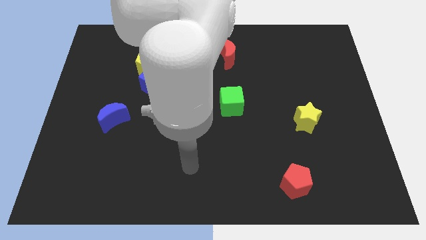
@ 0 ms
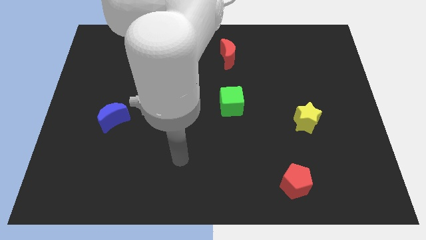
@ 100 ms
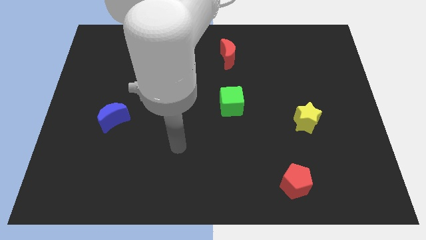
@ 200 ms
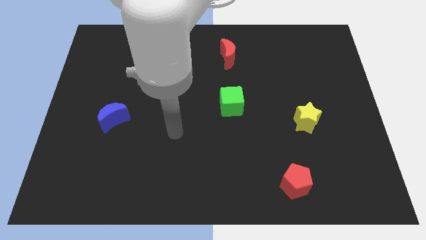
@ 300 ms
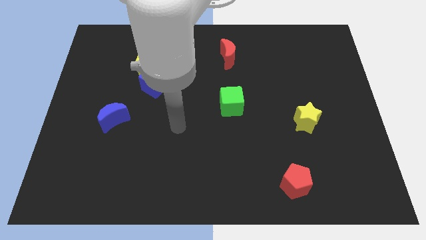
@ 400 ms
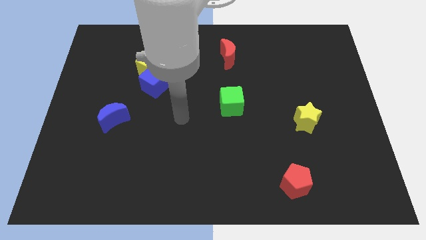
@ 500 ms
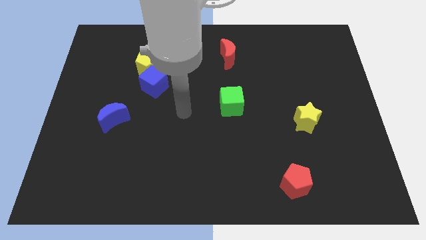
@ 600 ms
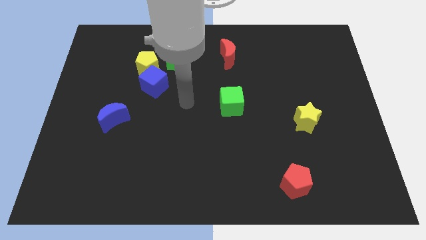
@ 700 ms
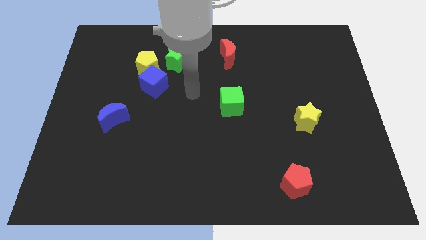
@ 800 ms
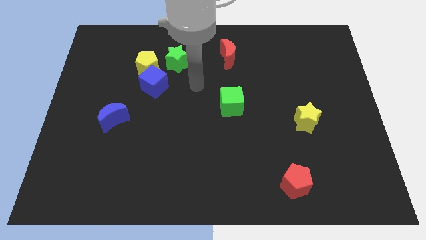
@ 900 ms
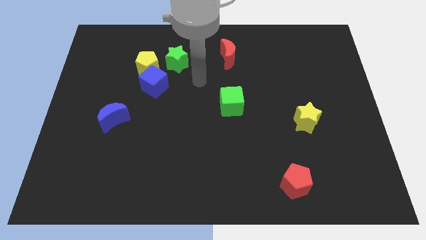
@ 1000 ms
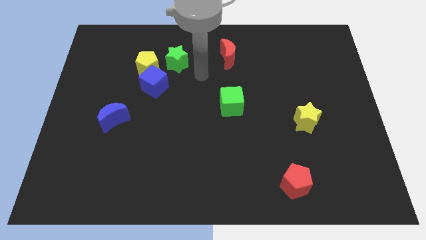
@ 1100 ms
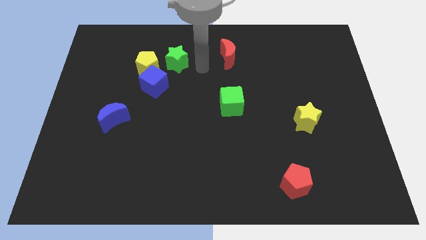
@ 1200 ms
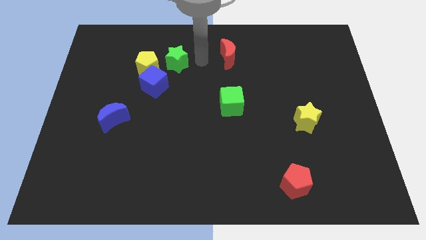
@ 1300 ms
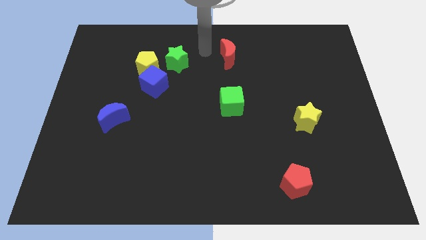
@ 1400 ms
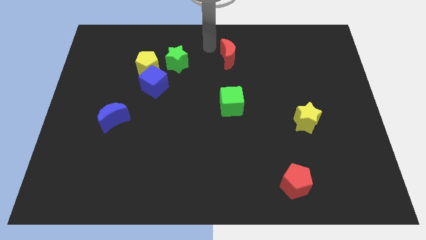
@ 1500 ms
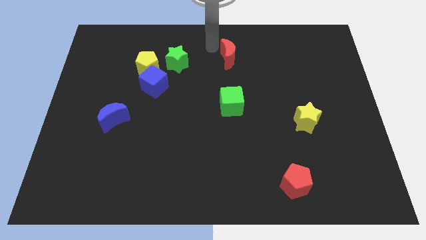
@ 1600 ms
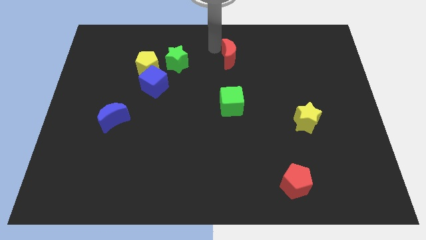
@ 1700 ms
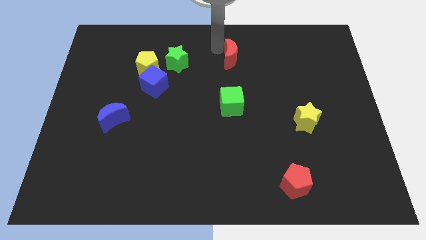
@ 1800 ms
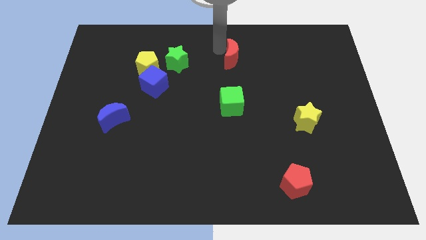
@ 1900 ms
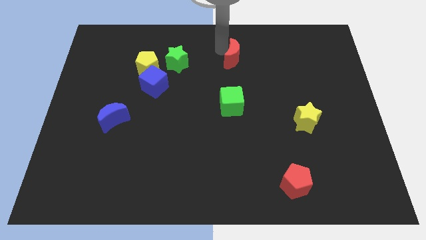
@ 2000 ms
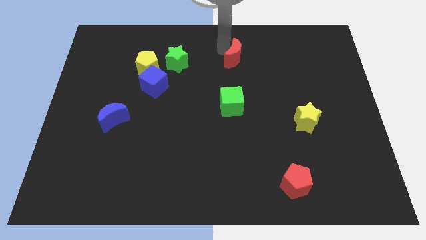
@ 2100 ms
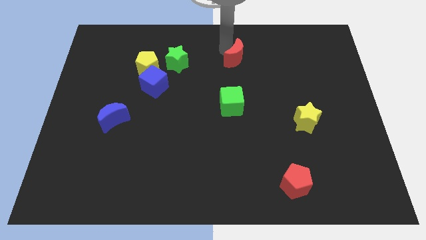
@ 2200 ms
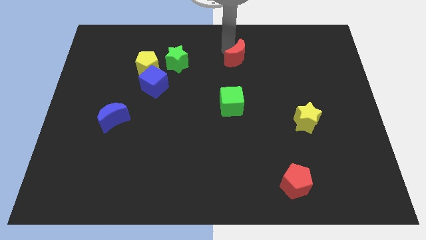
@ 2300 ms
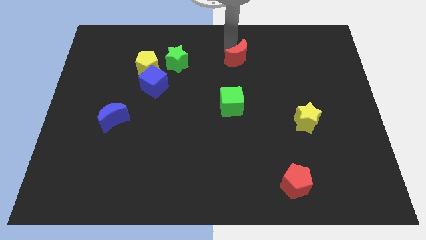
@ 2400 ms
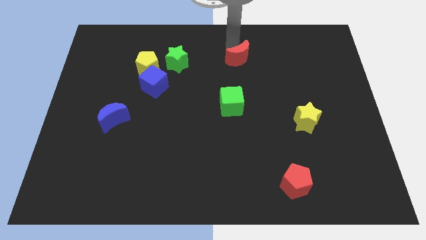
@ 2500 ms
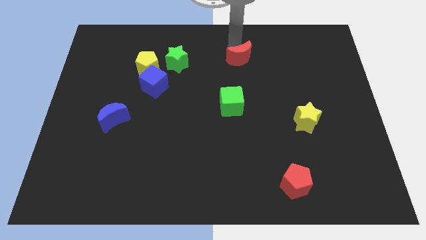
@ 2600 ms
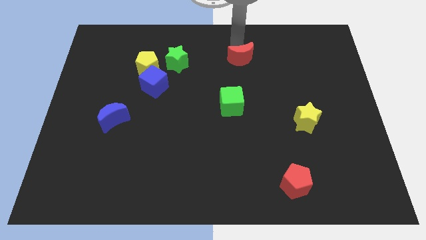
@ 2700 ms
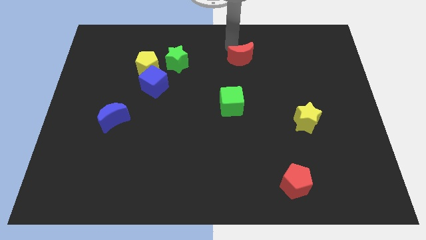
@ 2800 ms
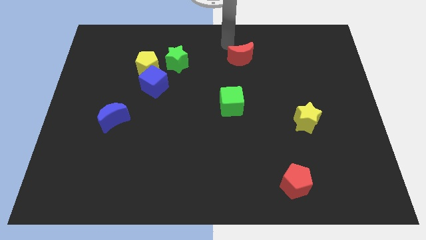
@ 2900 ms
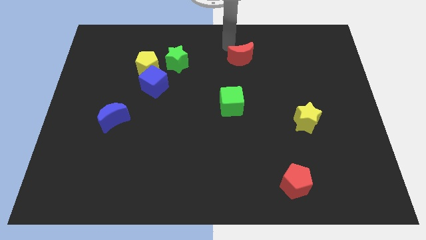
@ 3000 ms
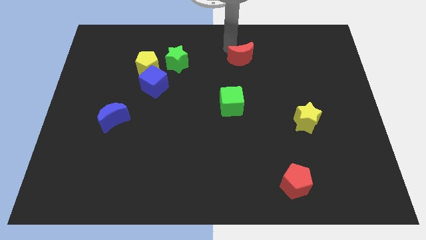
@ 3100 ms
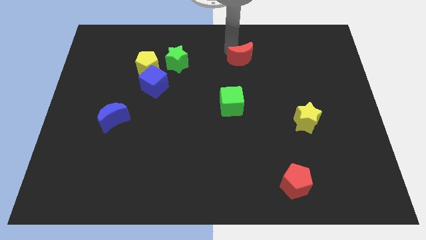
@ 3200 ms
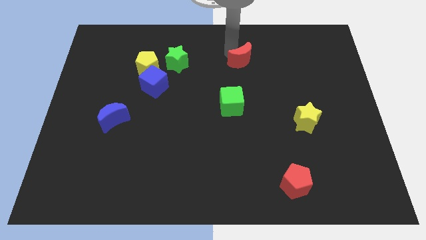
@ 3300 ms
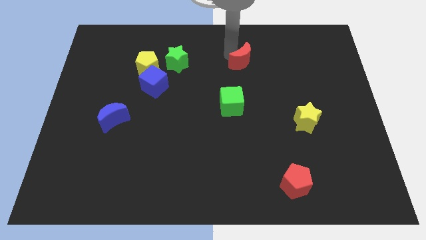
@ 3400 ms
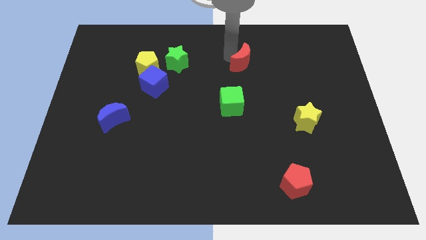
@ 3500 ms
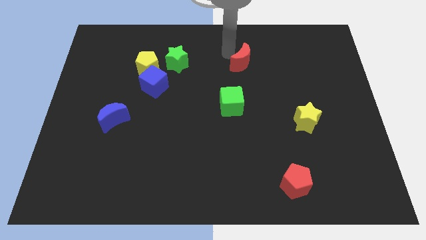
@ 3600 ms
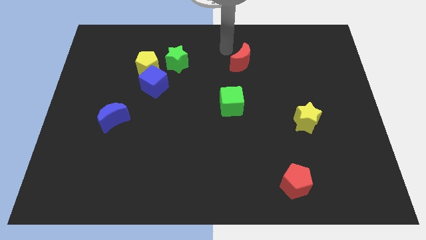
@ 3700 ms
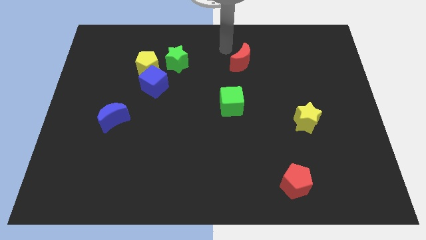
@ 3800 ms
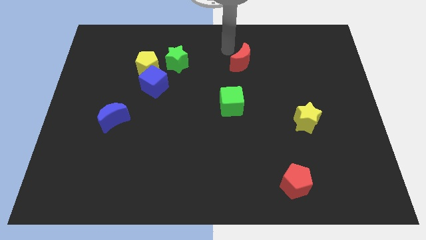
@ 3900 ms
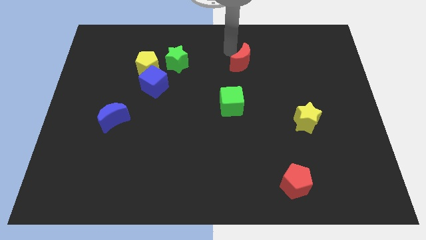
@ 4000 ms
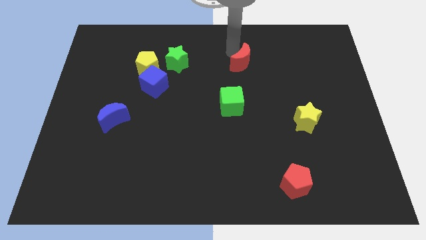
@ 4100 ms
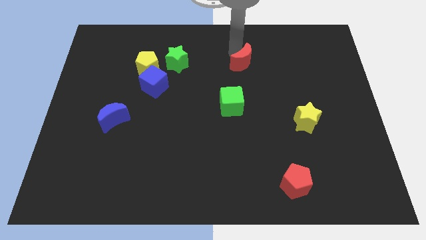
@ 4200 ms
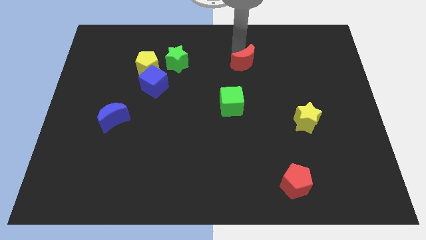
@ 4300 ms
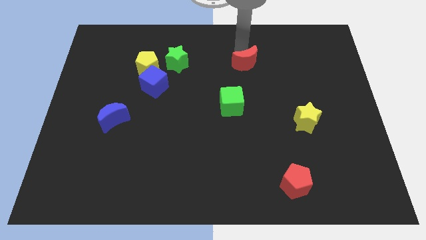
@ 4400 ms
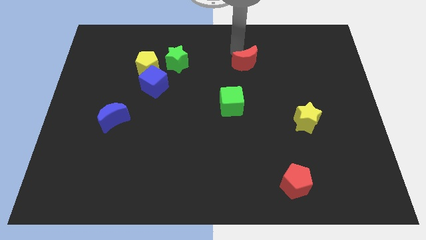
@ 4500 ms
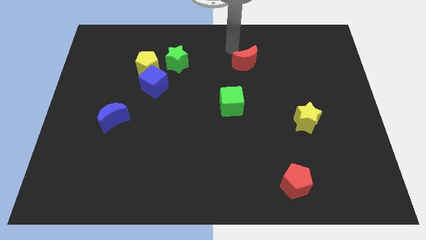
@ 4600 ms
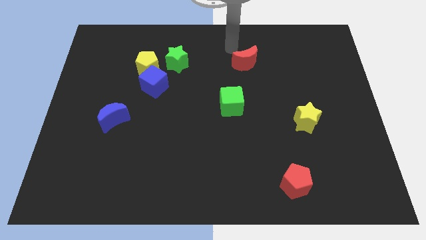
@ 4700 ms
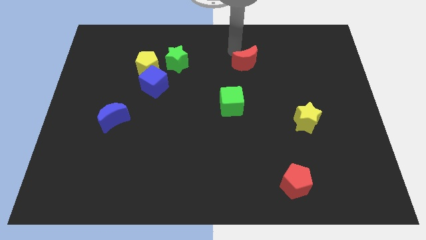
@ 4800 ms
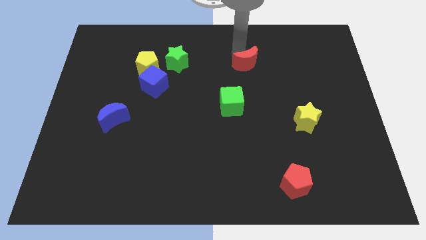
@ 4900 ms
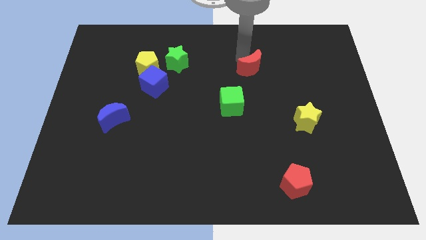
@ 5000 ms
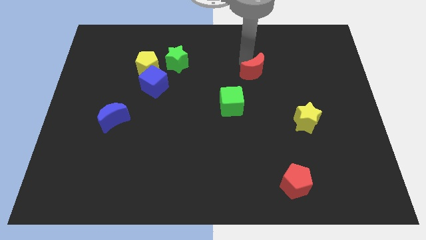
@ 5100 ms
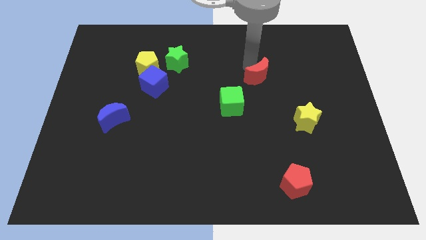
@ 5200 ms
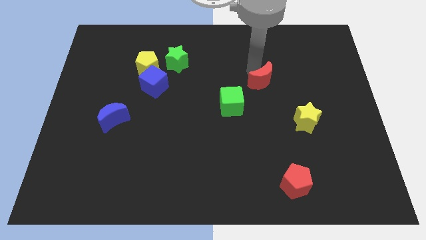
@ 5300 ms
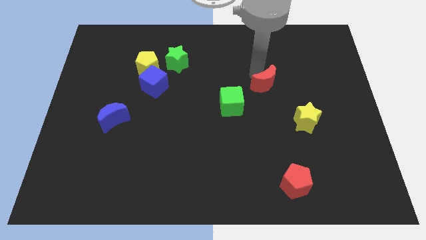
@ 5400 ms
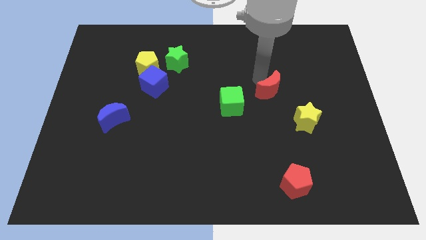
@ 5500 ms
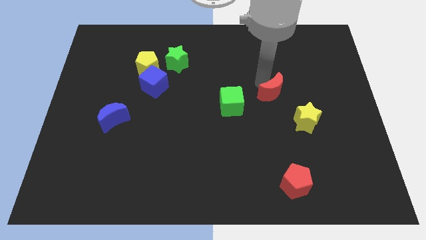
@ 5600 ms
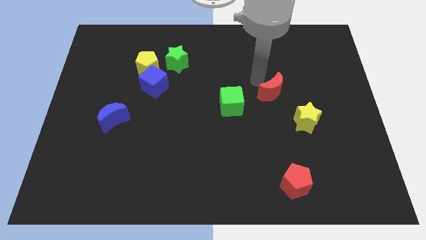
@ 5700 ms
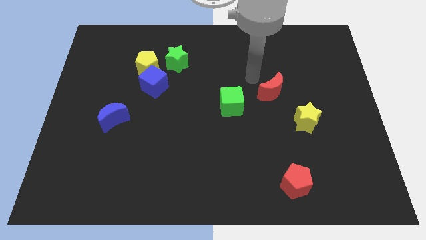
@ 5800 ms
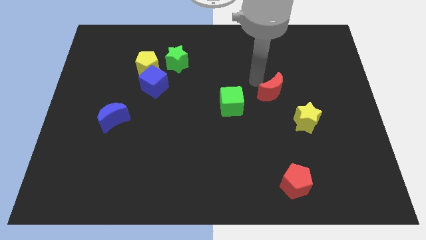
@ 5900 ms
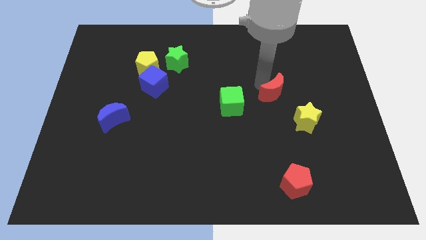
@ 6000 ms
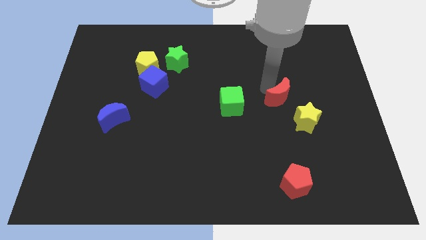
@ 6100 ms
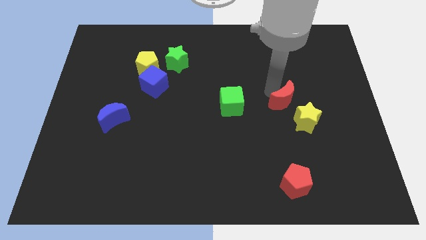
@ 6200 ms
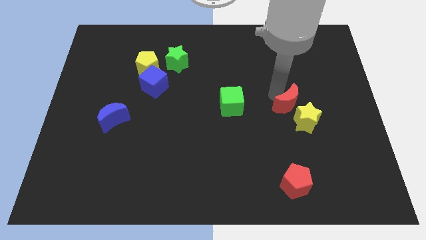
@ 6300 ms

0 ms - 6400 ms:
slide the red moon towards the yellow star

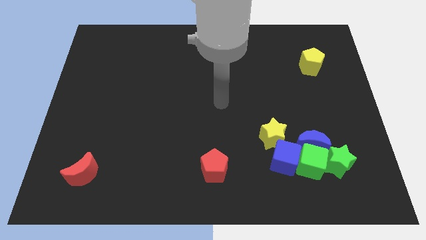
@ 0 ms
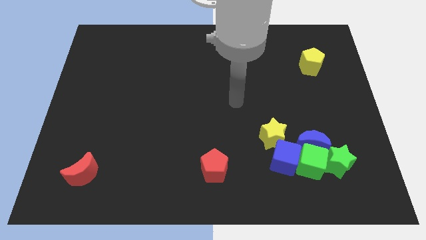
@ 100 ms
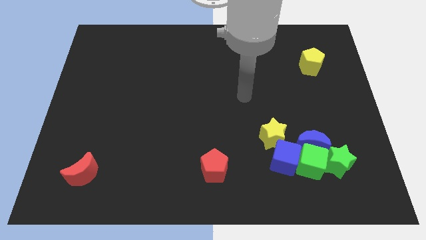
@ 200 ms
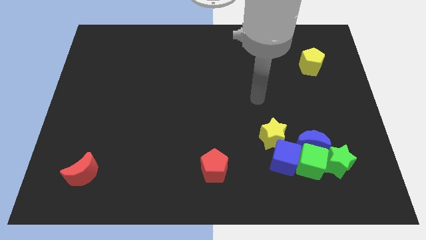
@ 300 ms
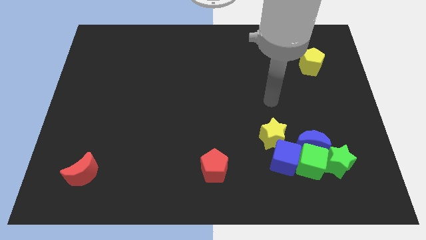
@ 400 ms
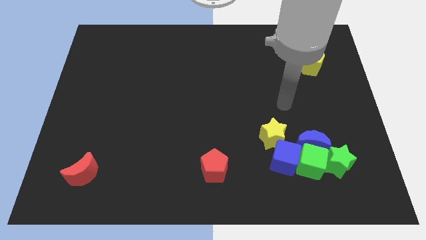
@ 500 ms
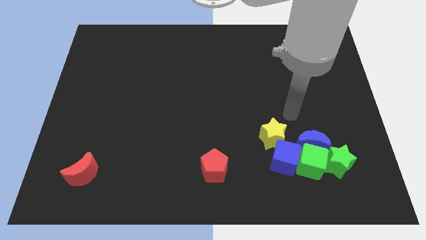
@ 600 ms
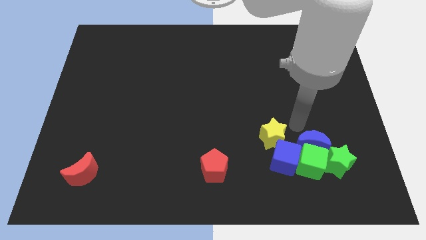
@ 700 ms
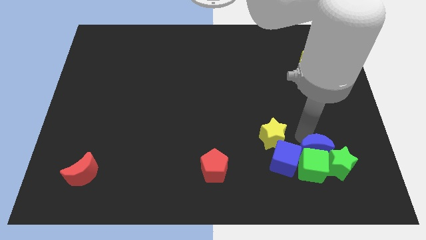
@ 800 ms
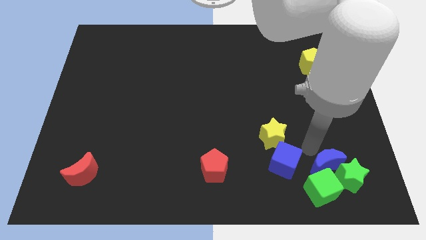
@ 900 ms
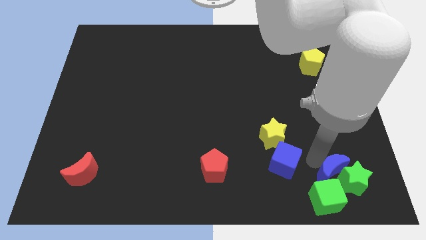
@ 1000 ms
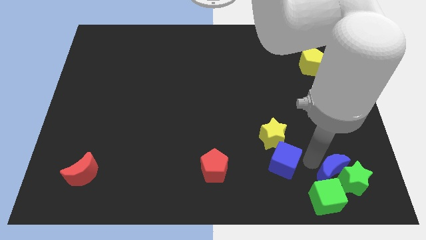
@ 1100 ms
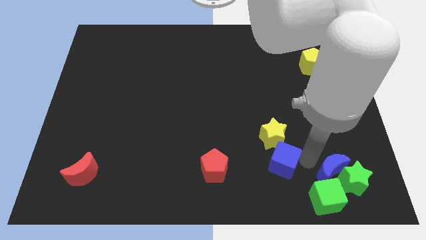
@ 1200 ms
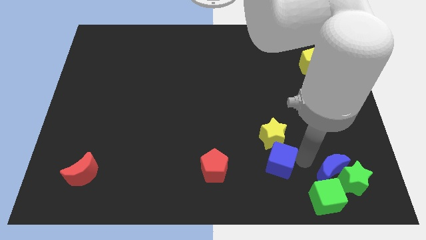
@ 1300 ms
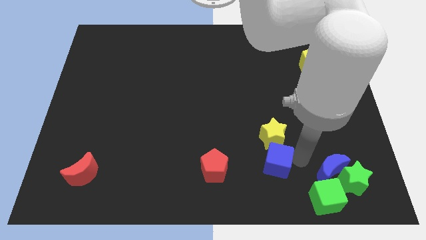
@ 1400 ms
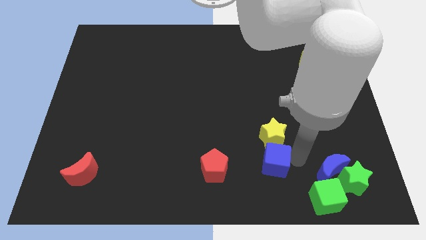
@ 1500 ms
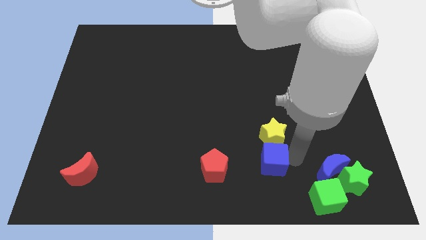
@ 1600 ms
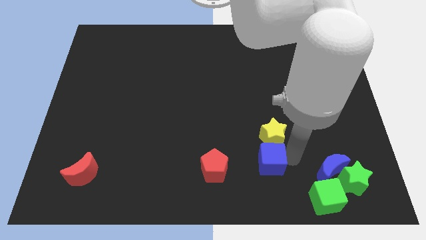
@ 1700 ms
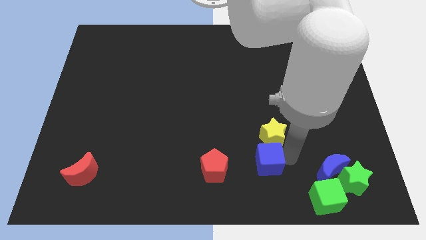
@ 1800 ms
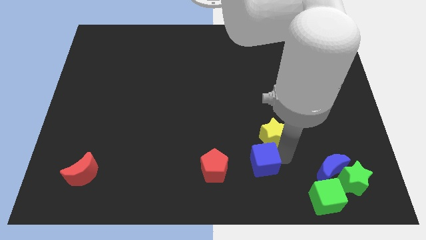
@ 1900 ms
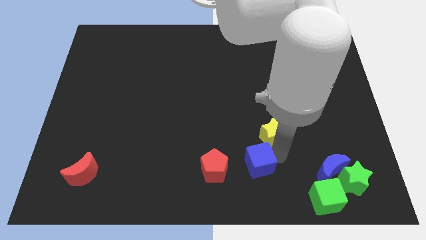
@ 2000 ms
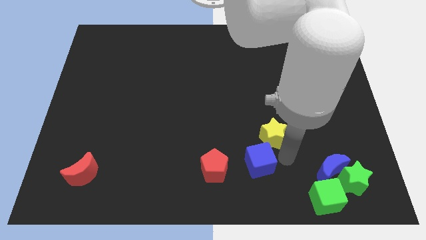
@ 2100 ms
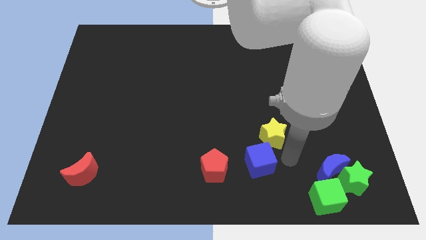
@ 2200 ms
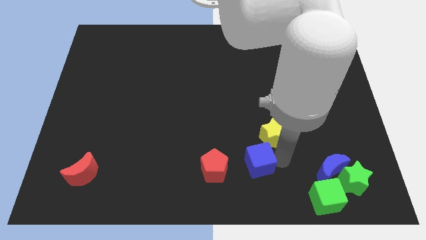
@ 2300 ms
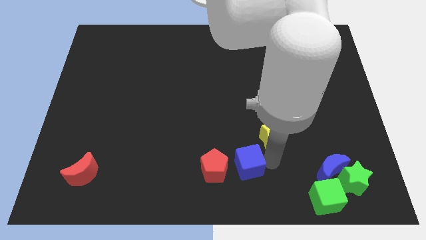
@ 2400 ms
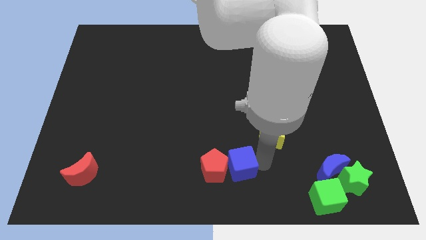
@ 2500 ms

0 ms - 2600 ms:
slide the blue cube close to the red pentagon
